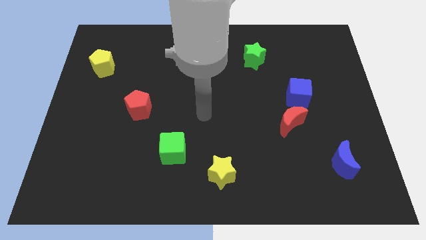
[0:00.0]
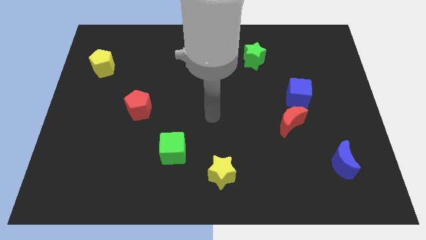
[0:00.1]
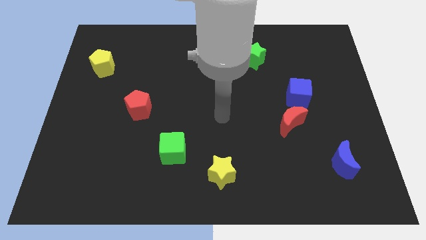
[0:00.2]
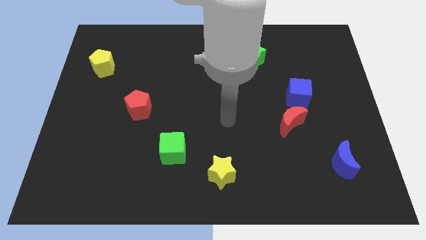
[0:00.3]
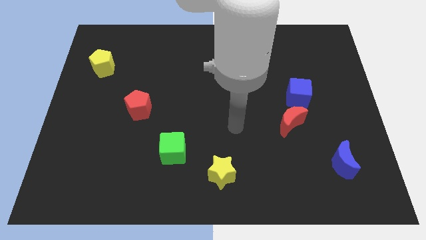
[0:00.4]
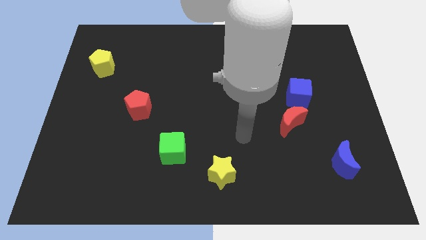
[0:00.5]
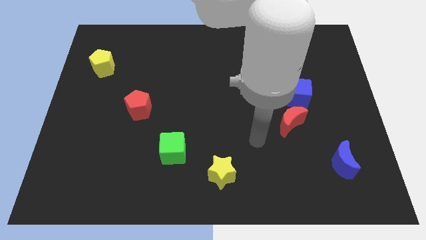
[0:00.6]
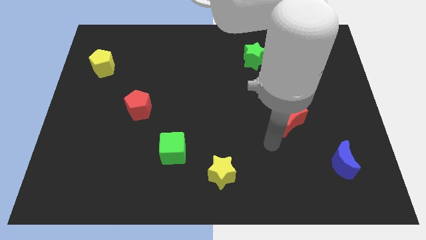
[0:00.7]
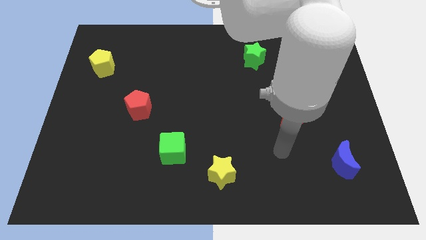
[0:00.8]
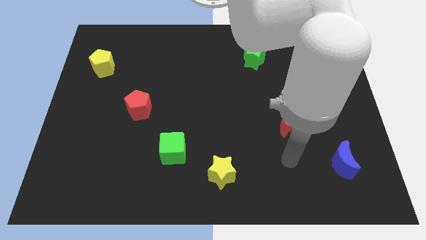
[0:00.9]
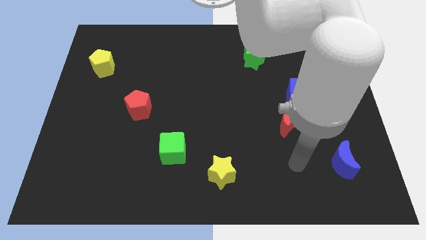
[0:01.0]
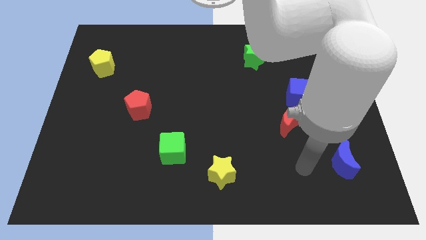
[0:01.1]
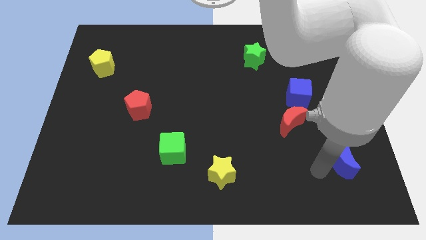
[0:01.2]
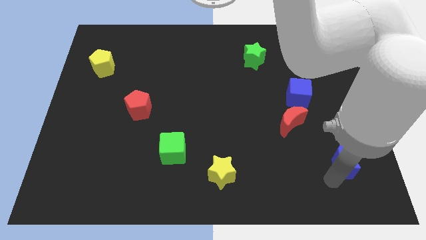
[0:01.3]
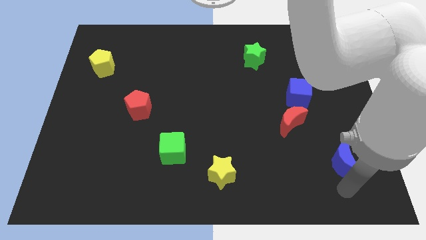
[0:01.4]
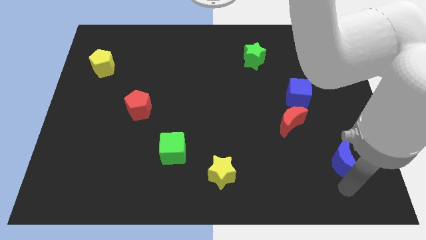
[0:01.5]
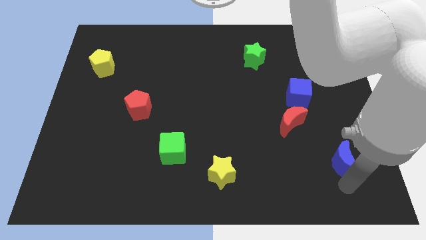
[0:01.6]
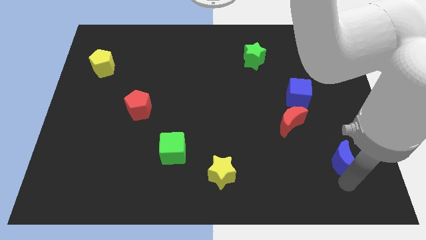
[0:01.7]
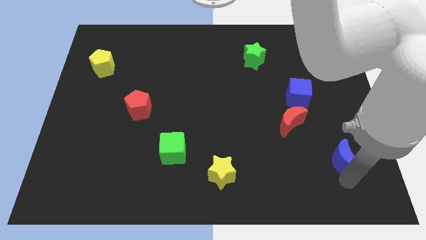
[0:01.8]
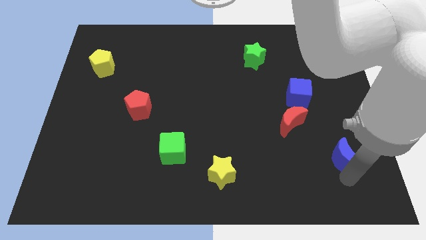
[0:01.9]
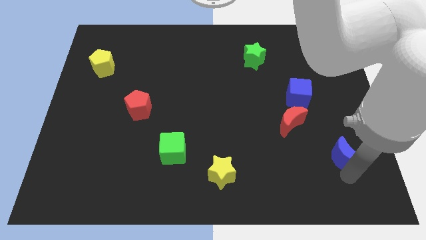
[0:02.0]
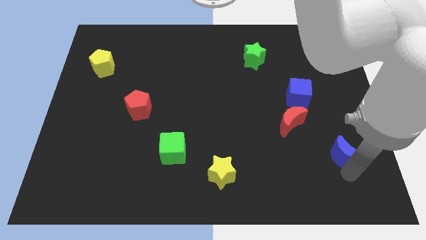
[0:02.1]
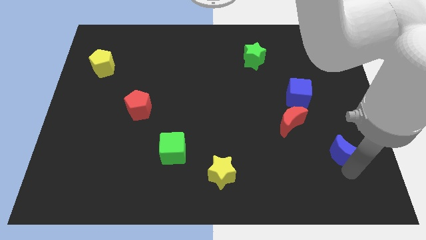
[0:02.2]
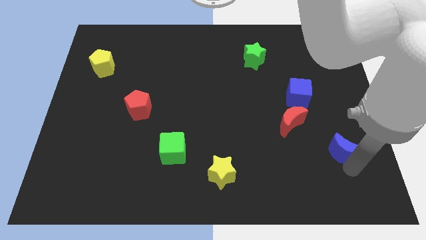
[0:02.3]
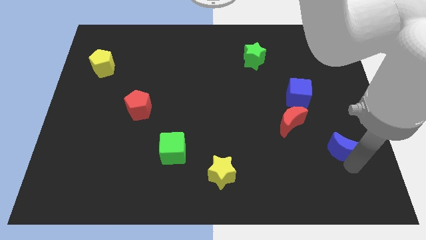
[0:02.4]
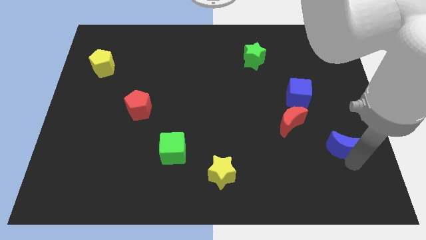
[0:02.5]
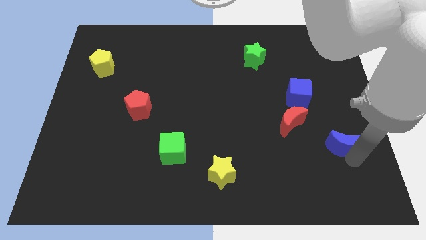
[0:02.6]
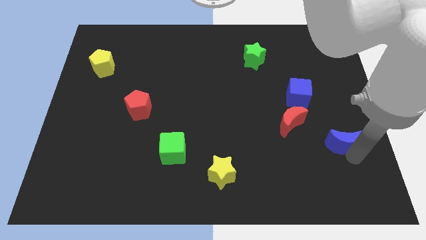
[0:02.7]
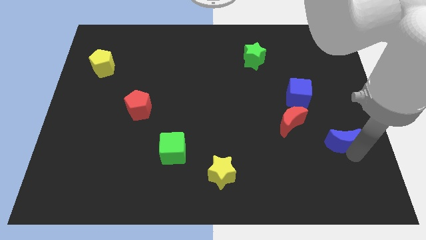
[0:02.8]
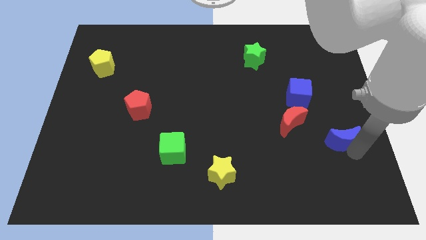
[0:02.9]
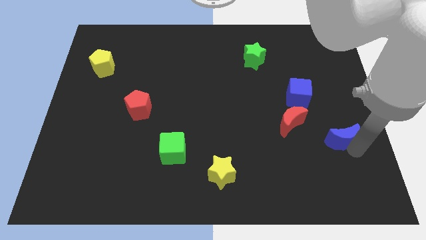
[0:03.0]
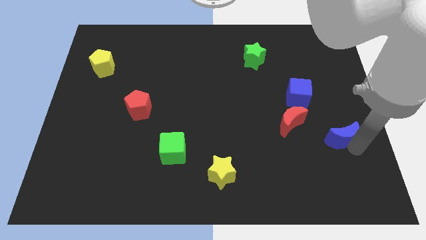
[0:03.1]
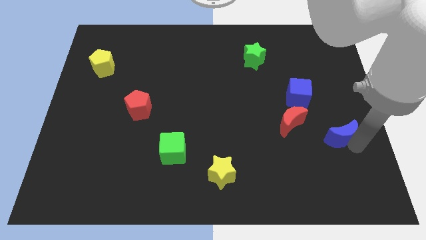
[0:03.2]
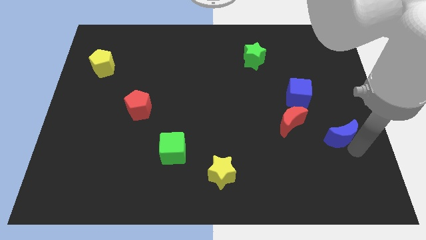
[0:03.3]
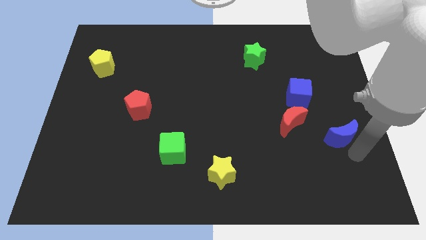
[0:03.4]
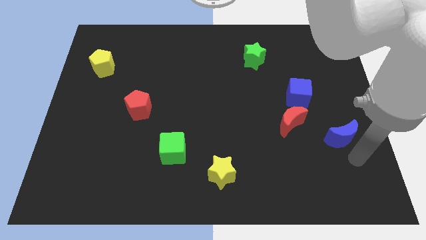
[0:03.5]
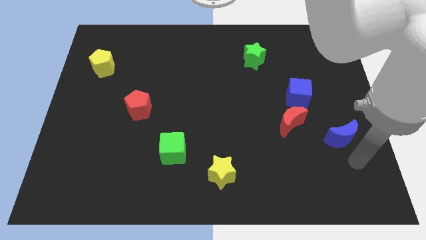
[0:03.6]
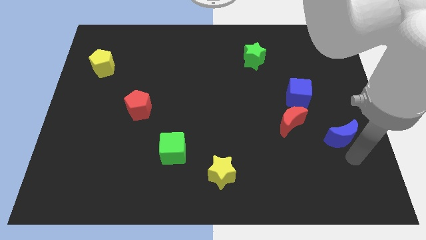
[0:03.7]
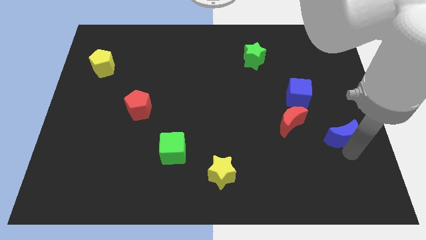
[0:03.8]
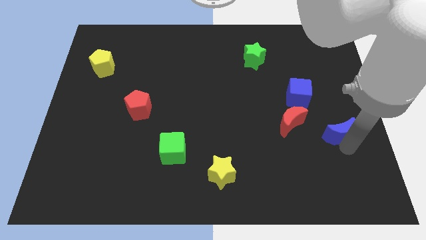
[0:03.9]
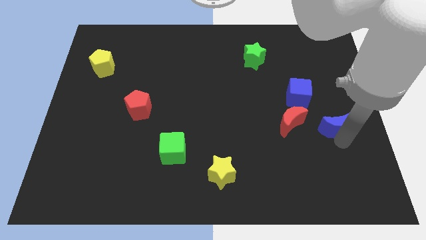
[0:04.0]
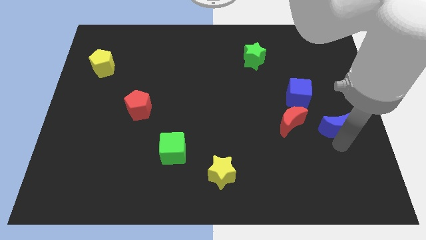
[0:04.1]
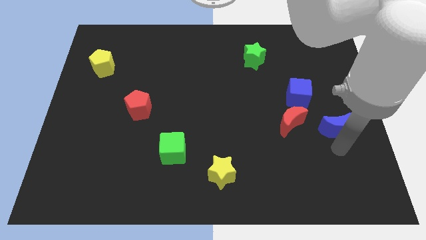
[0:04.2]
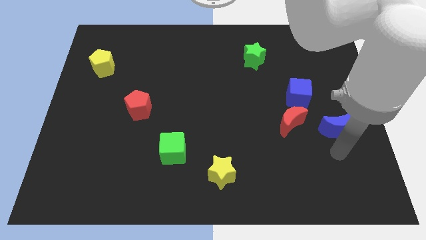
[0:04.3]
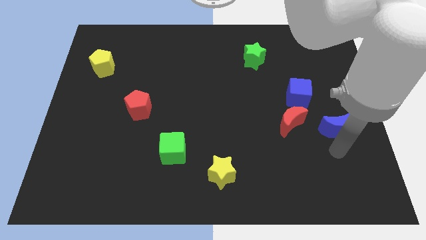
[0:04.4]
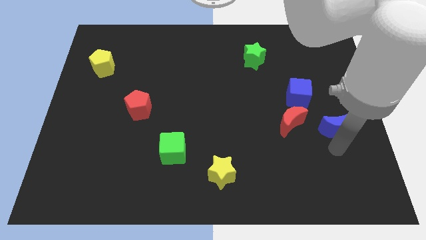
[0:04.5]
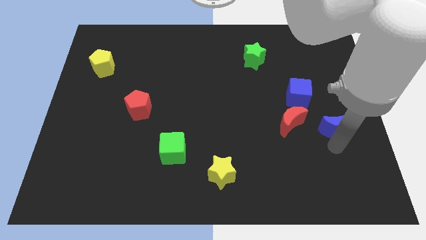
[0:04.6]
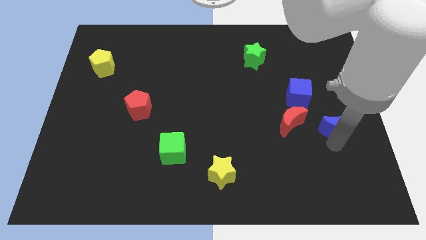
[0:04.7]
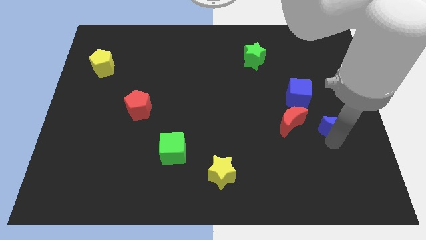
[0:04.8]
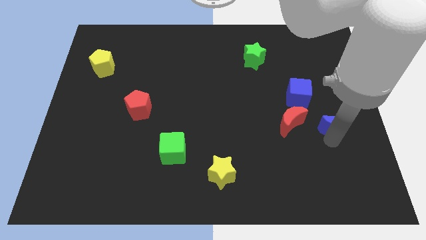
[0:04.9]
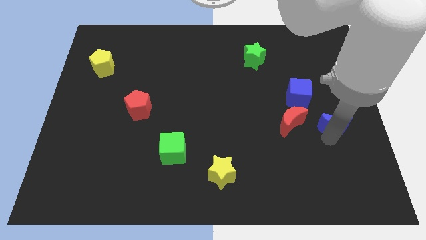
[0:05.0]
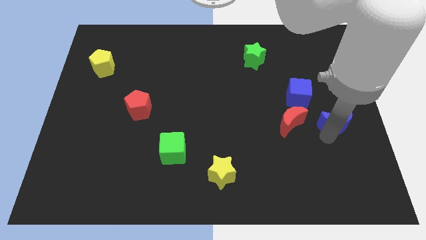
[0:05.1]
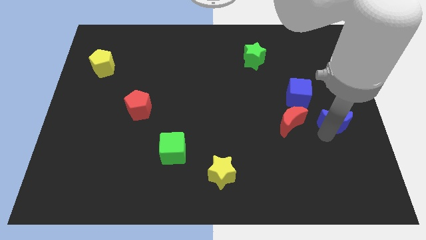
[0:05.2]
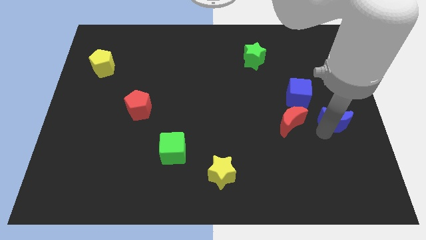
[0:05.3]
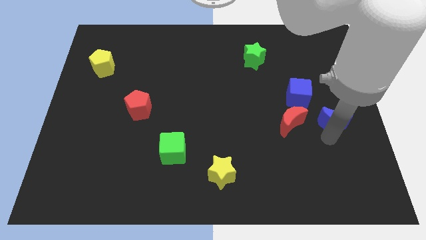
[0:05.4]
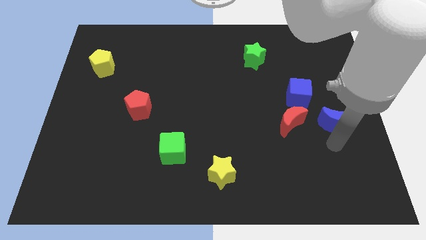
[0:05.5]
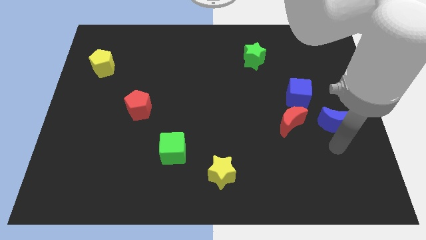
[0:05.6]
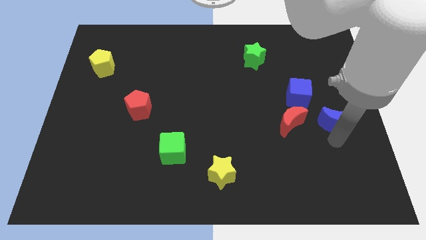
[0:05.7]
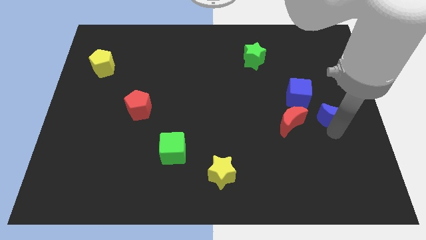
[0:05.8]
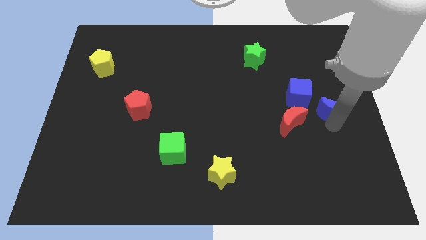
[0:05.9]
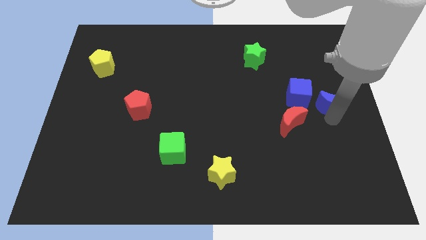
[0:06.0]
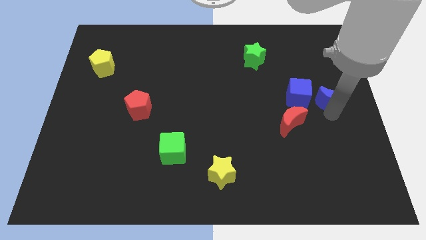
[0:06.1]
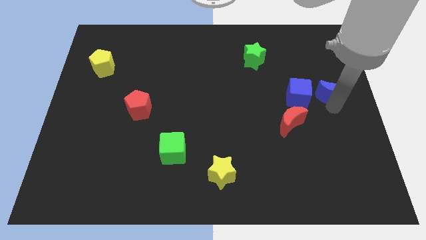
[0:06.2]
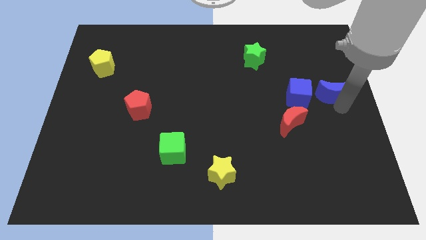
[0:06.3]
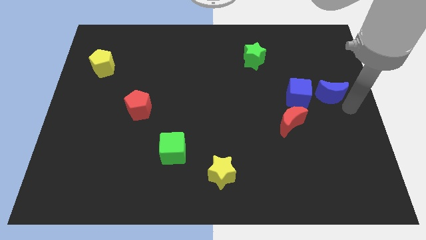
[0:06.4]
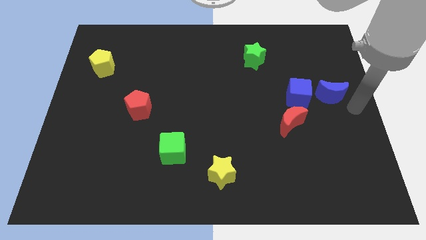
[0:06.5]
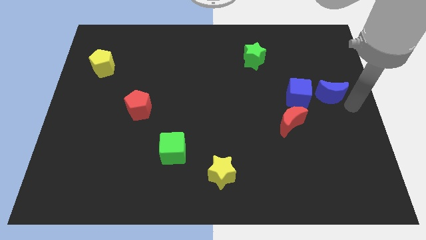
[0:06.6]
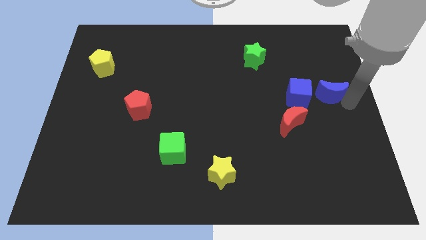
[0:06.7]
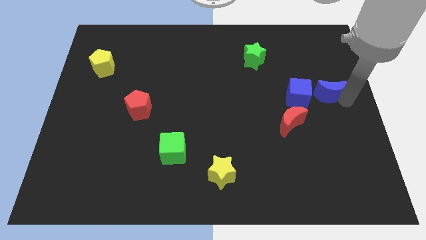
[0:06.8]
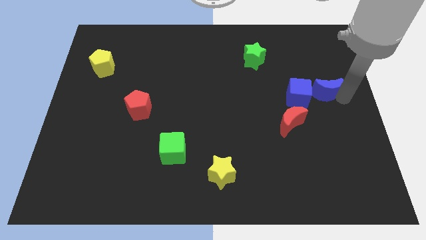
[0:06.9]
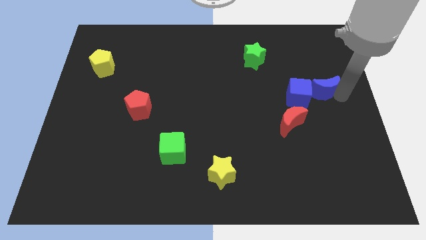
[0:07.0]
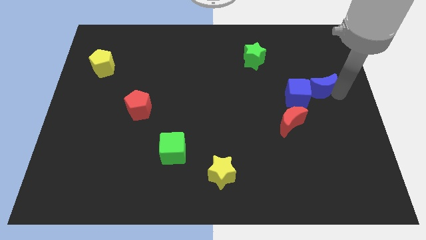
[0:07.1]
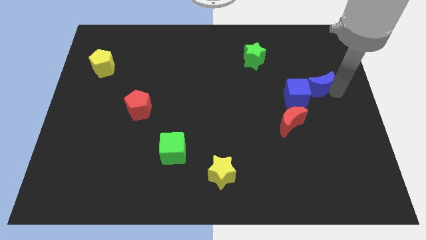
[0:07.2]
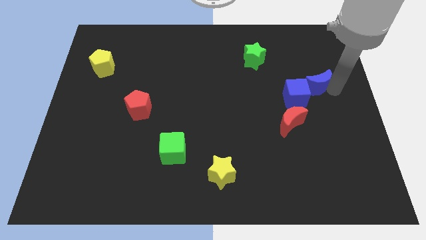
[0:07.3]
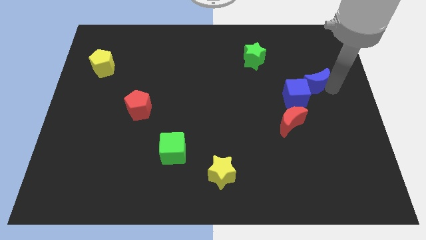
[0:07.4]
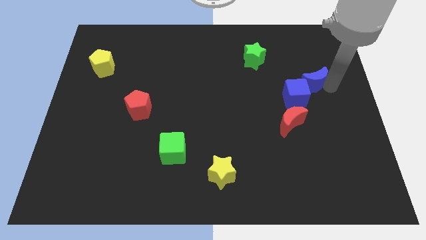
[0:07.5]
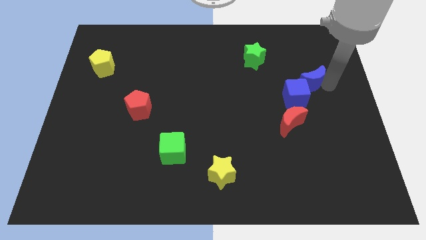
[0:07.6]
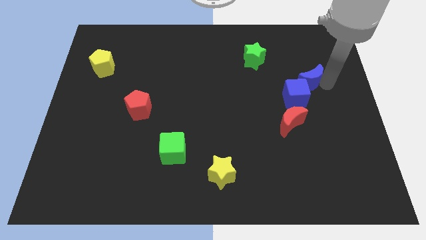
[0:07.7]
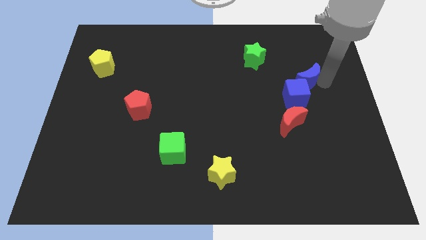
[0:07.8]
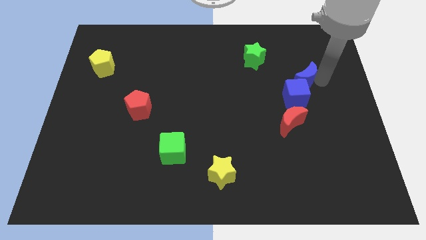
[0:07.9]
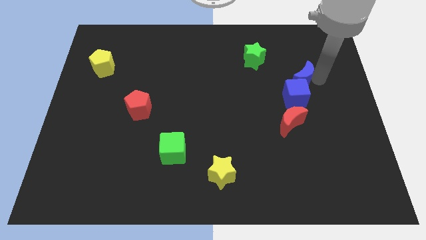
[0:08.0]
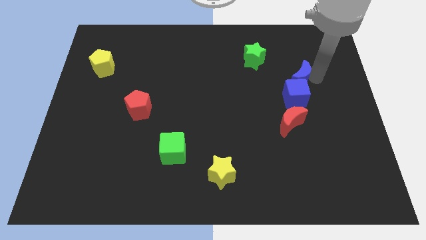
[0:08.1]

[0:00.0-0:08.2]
push the blue moon above the red moon
